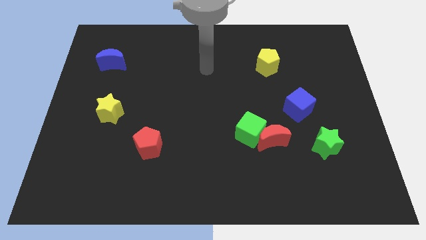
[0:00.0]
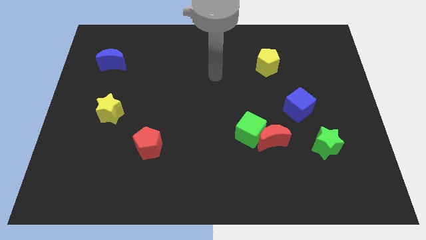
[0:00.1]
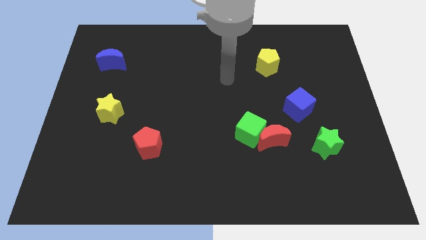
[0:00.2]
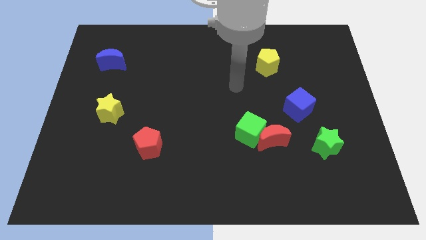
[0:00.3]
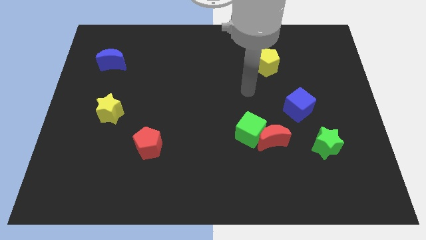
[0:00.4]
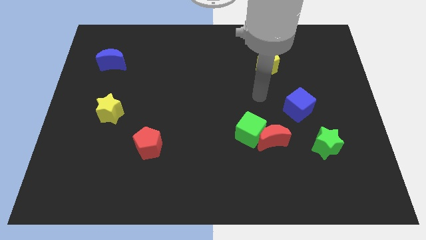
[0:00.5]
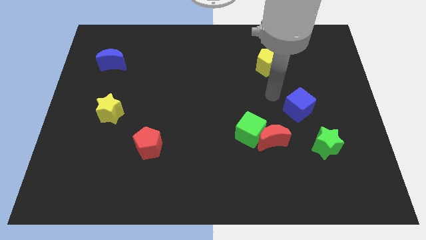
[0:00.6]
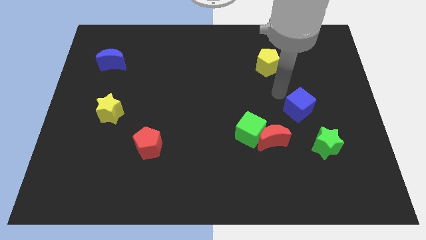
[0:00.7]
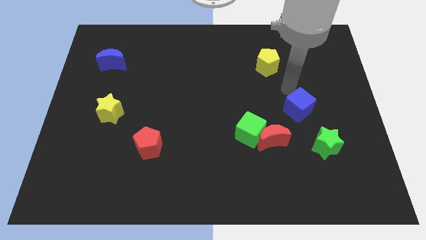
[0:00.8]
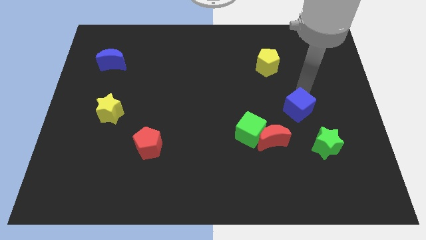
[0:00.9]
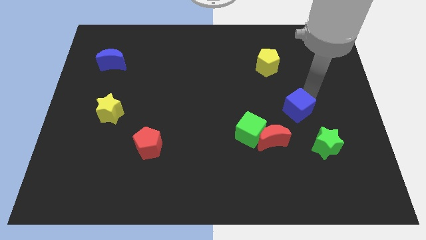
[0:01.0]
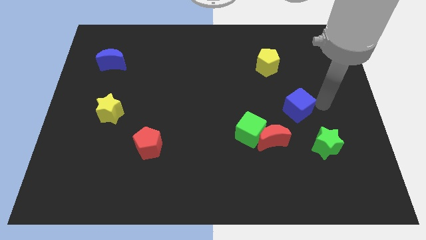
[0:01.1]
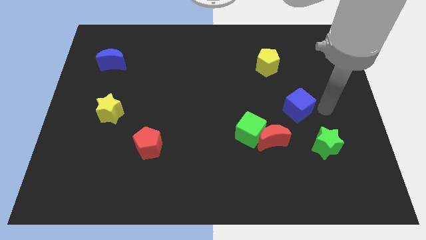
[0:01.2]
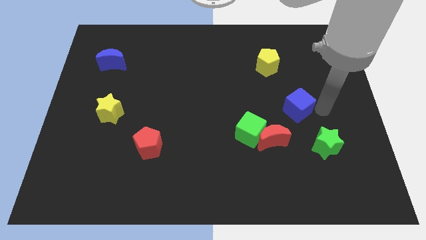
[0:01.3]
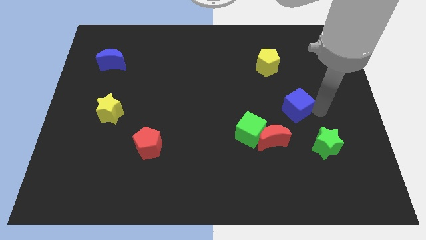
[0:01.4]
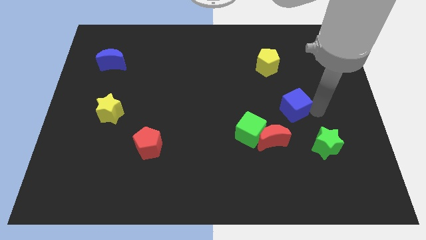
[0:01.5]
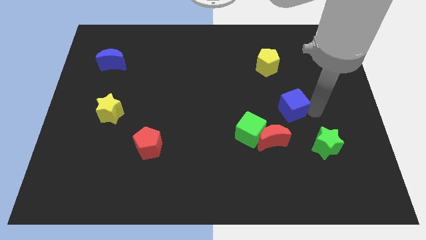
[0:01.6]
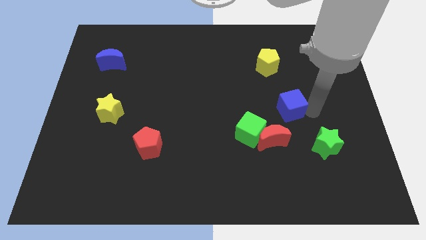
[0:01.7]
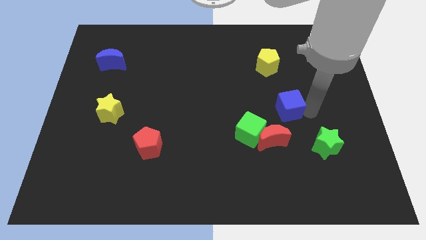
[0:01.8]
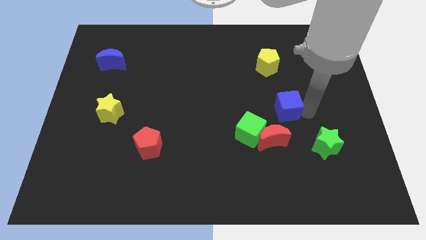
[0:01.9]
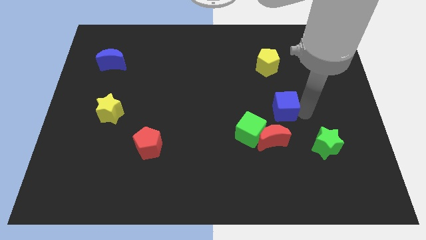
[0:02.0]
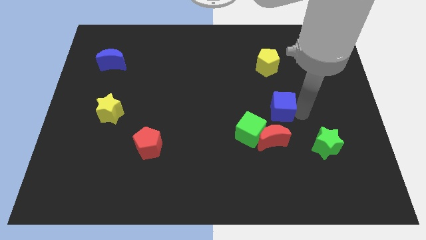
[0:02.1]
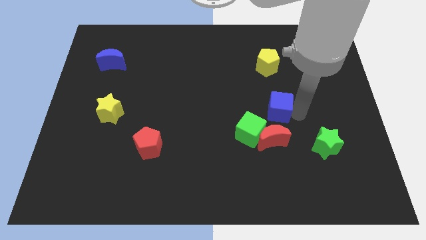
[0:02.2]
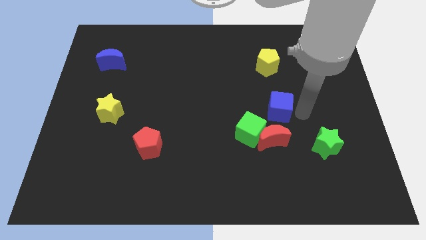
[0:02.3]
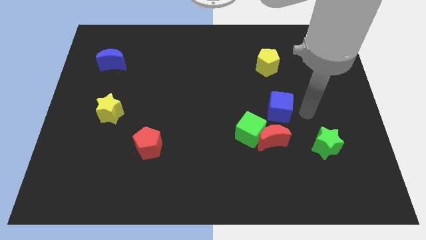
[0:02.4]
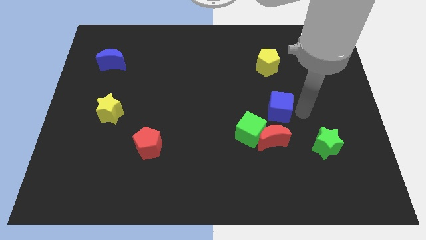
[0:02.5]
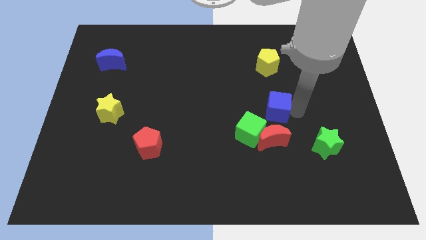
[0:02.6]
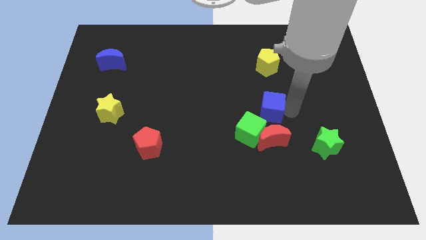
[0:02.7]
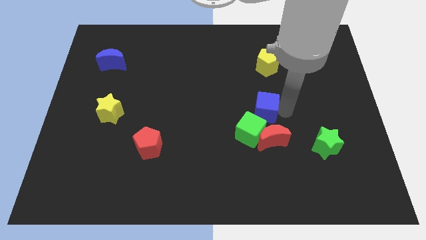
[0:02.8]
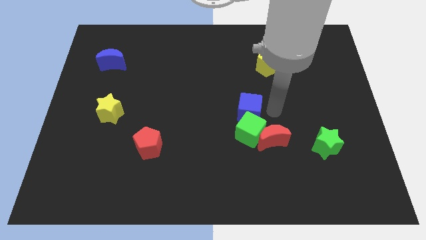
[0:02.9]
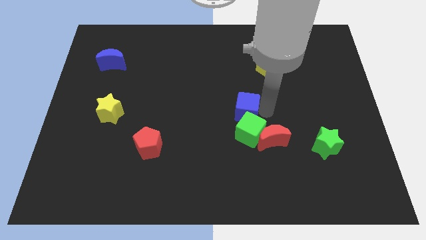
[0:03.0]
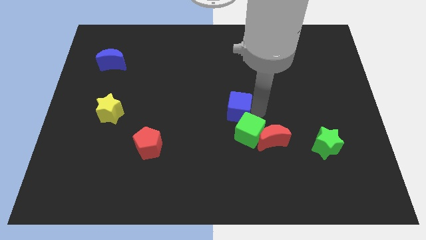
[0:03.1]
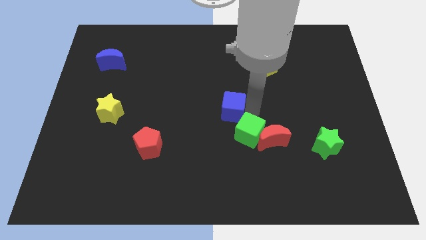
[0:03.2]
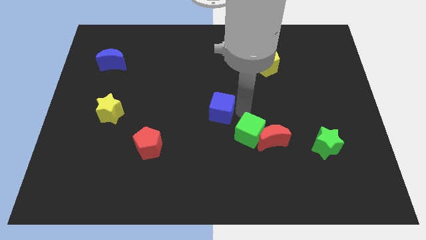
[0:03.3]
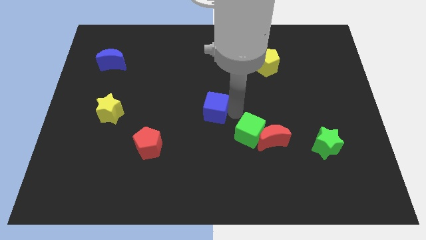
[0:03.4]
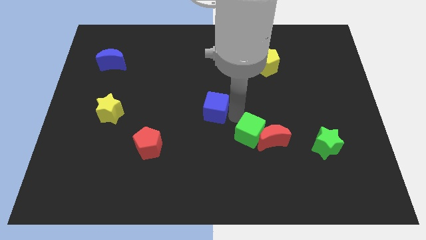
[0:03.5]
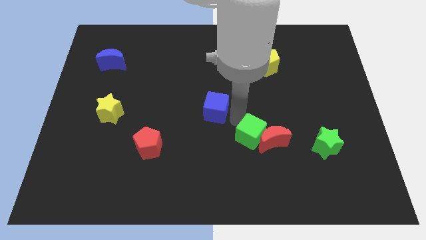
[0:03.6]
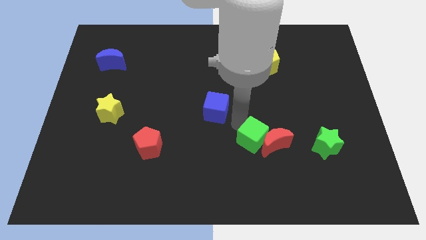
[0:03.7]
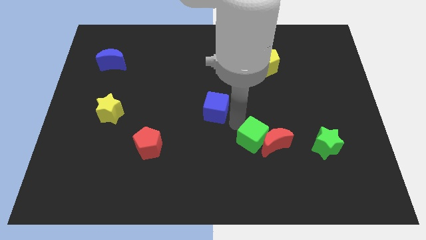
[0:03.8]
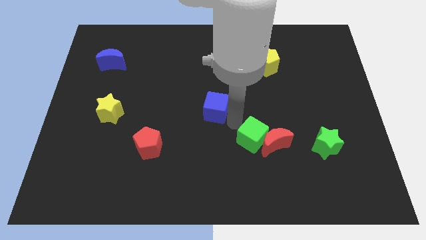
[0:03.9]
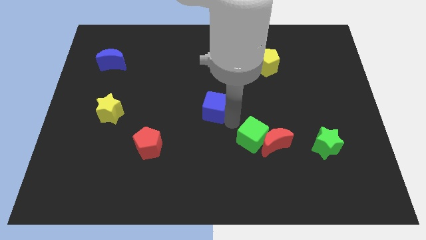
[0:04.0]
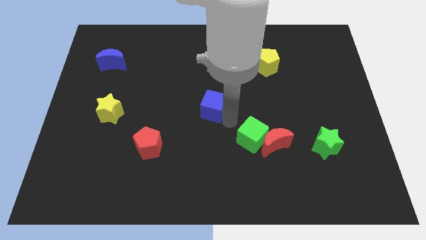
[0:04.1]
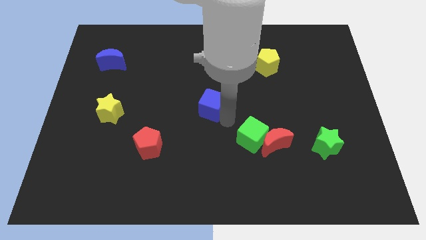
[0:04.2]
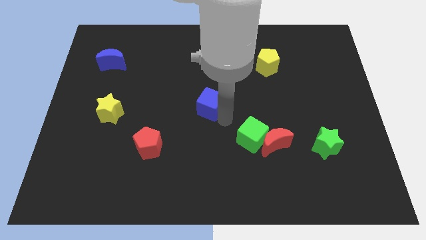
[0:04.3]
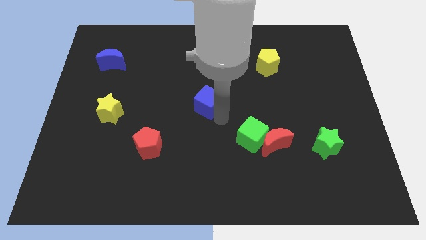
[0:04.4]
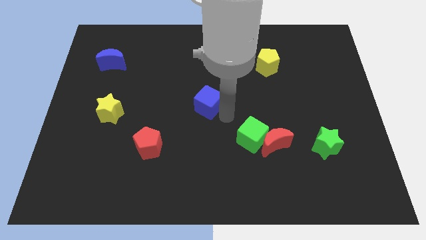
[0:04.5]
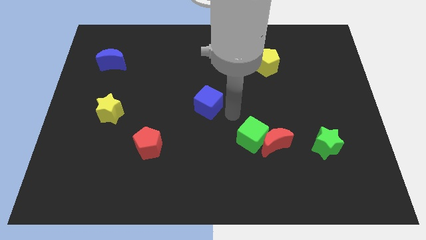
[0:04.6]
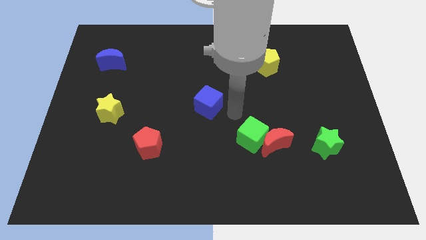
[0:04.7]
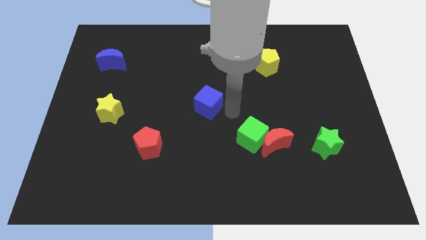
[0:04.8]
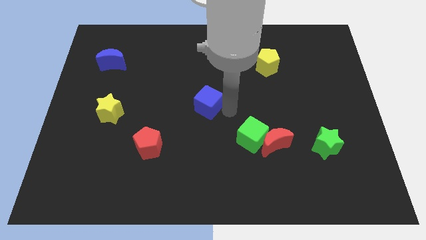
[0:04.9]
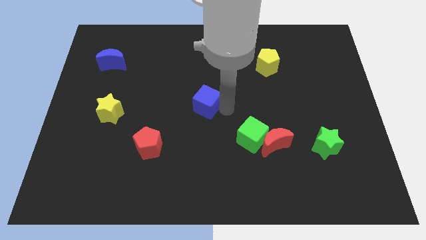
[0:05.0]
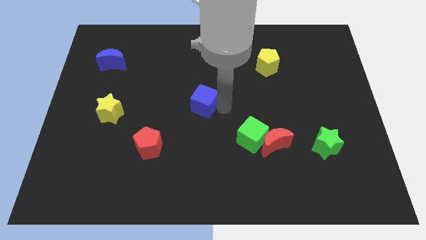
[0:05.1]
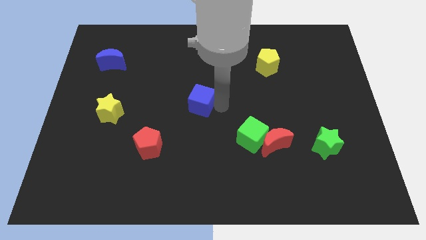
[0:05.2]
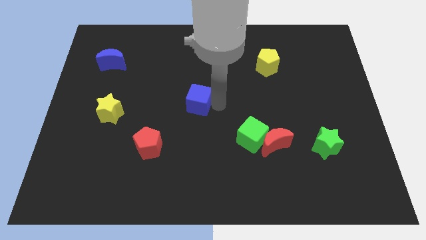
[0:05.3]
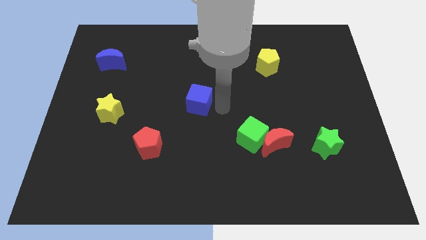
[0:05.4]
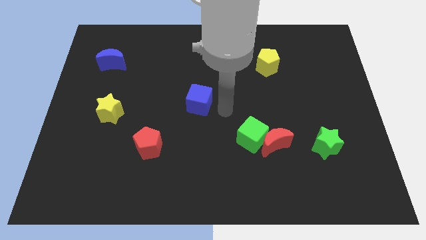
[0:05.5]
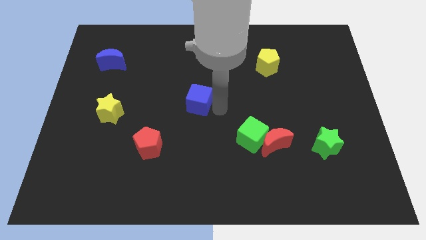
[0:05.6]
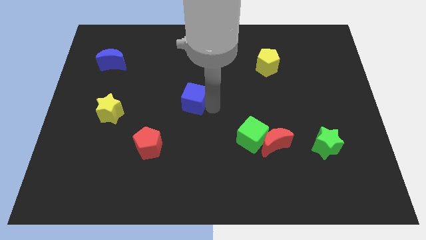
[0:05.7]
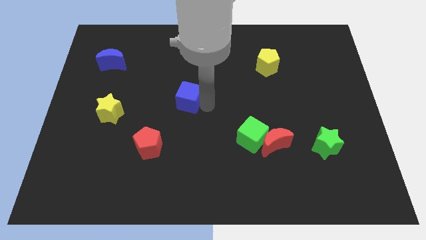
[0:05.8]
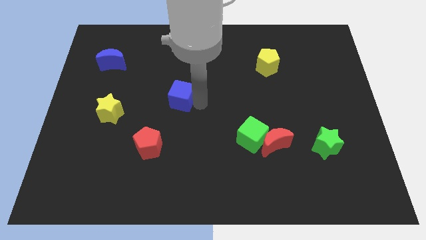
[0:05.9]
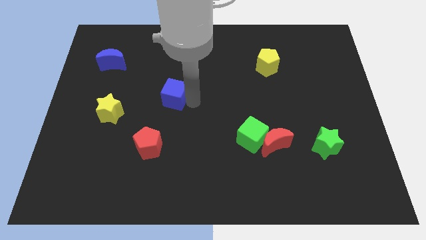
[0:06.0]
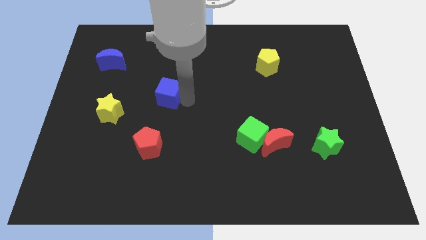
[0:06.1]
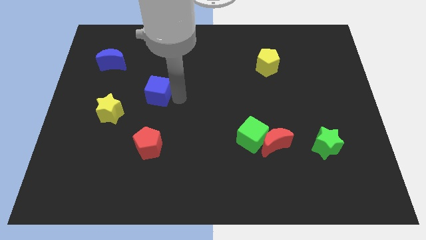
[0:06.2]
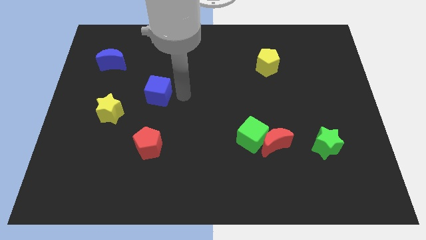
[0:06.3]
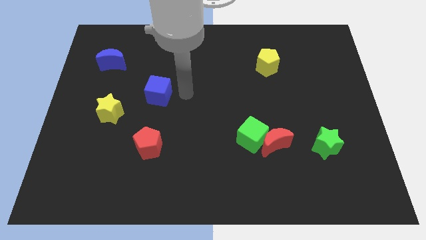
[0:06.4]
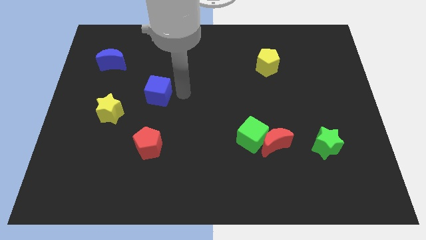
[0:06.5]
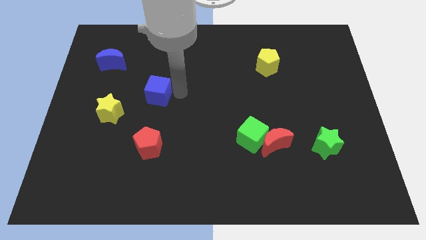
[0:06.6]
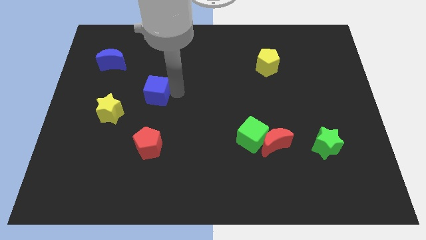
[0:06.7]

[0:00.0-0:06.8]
put the blue cube to the top right side of the yellow star

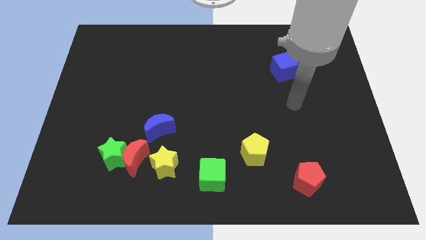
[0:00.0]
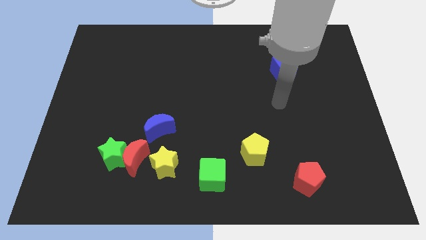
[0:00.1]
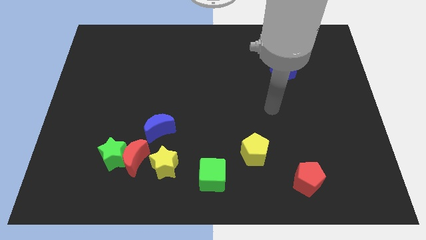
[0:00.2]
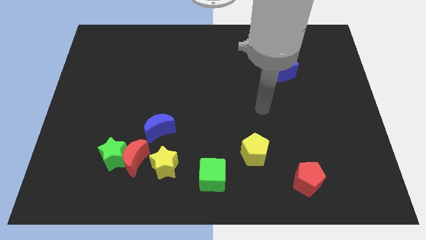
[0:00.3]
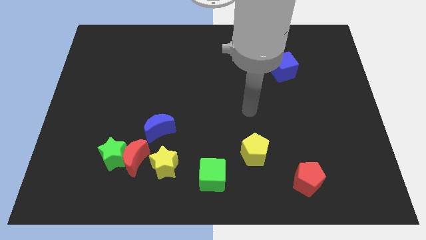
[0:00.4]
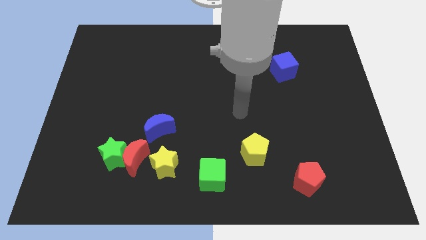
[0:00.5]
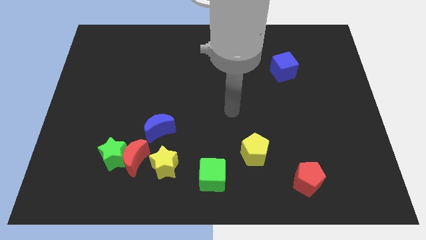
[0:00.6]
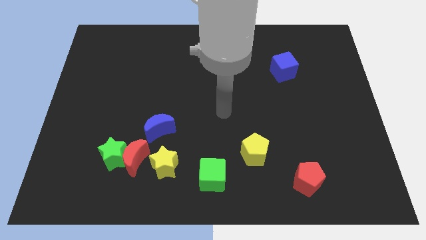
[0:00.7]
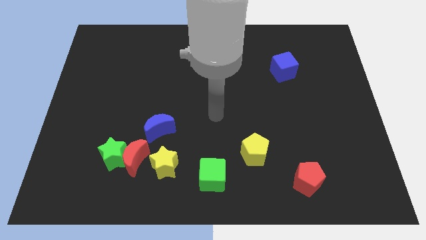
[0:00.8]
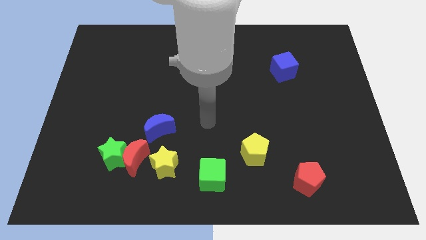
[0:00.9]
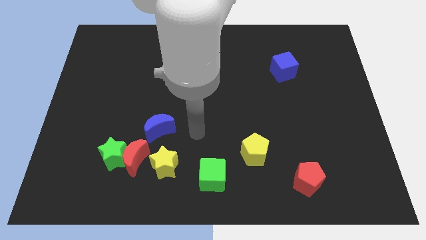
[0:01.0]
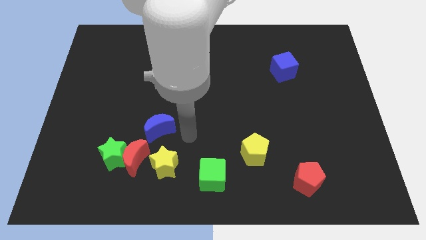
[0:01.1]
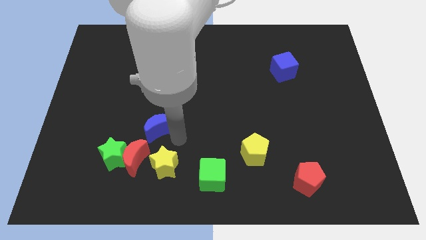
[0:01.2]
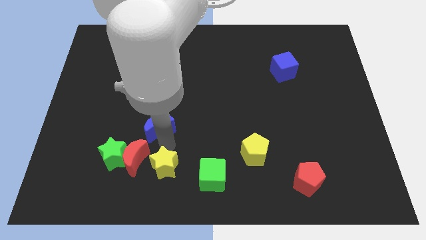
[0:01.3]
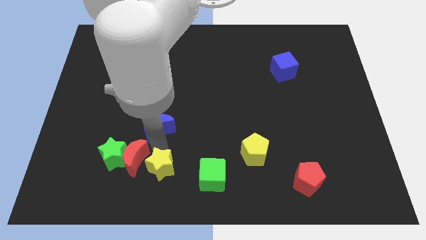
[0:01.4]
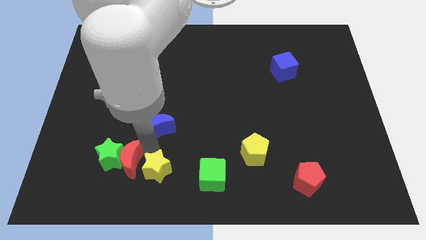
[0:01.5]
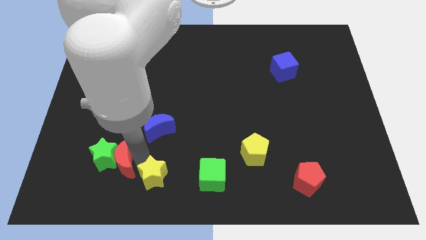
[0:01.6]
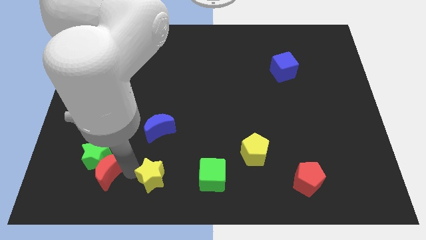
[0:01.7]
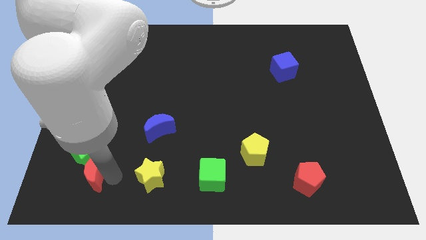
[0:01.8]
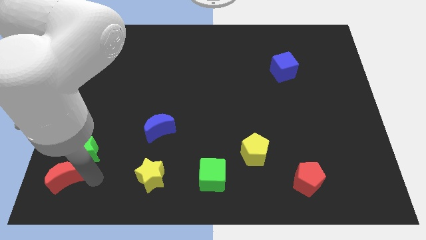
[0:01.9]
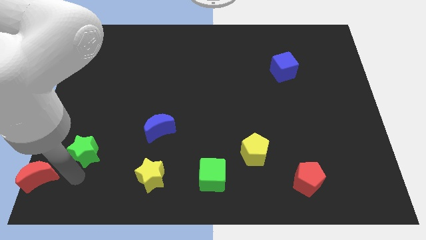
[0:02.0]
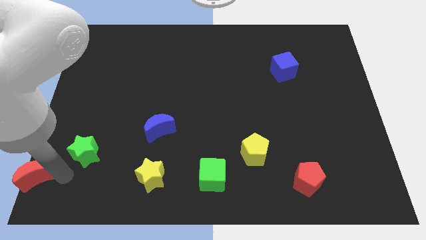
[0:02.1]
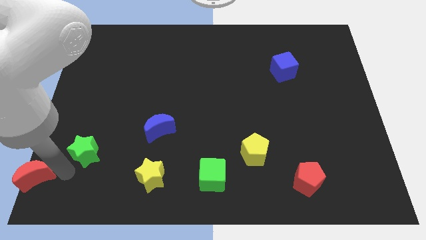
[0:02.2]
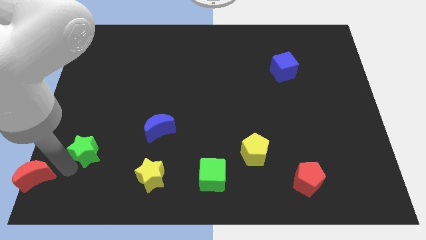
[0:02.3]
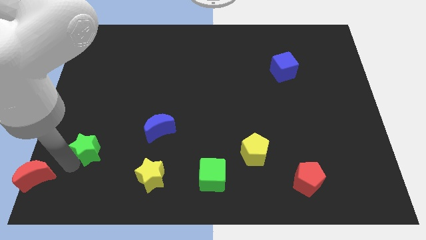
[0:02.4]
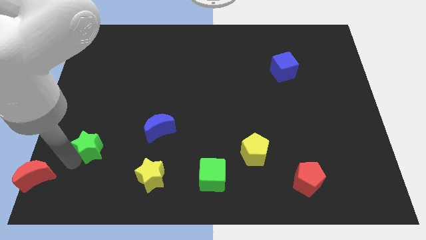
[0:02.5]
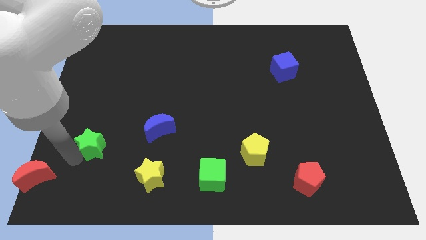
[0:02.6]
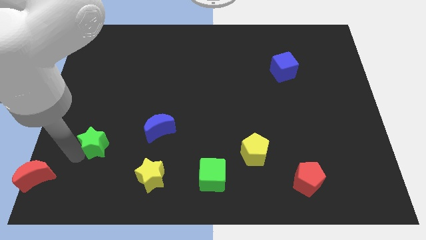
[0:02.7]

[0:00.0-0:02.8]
move the green star just left of the blue moon
